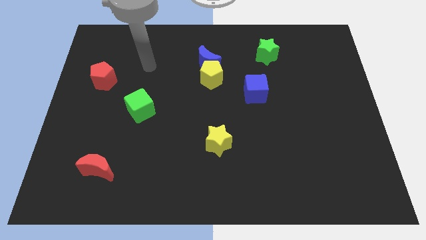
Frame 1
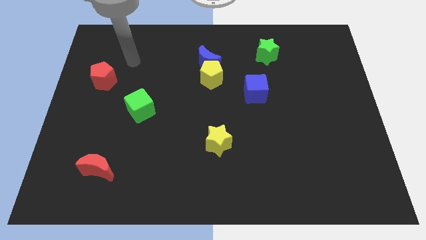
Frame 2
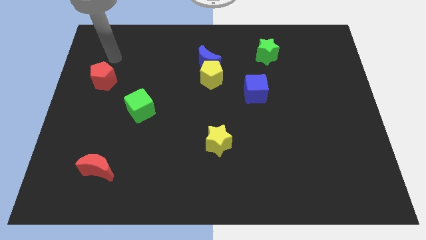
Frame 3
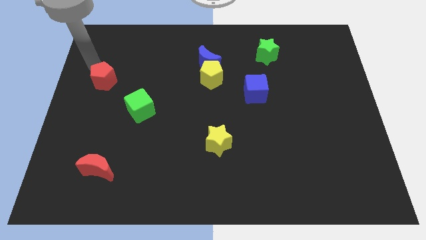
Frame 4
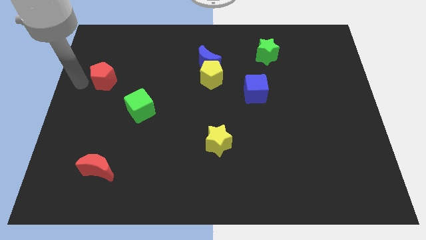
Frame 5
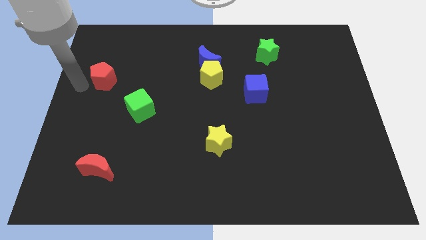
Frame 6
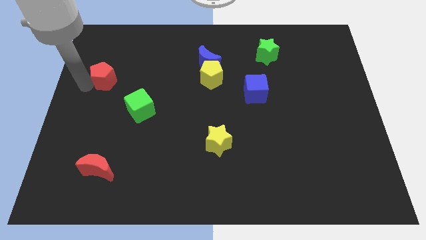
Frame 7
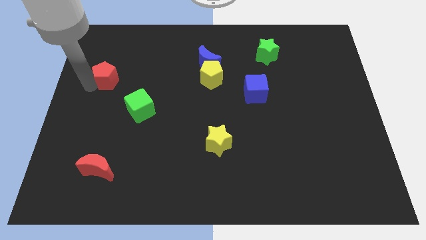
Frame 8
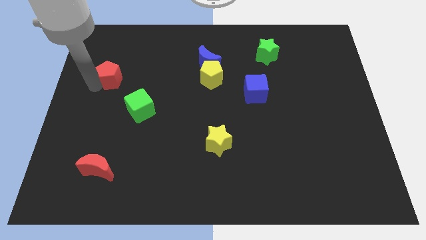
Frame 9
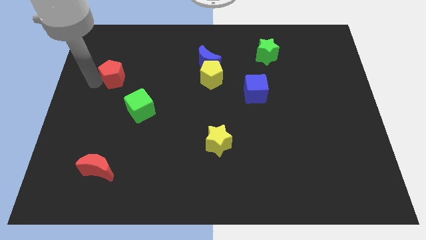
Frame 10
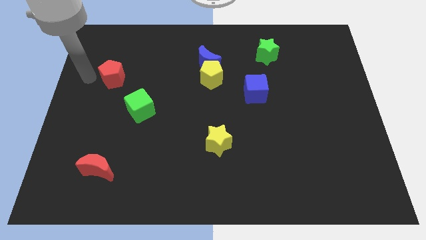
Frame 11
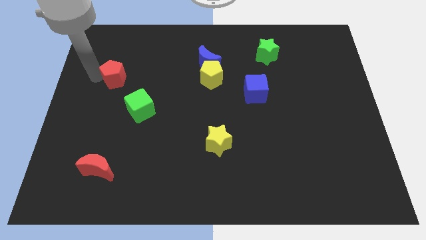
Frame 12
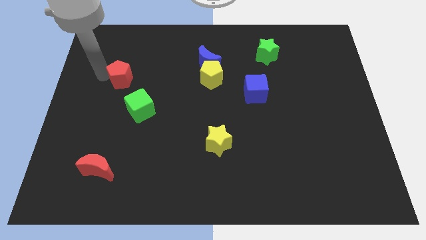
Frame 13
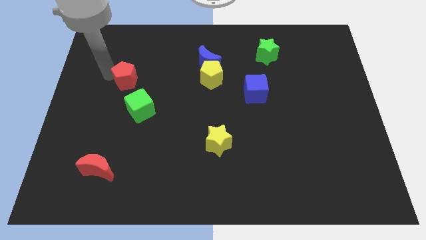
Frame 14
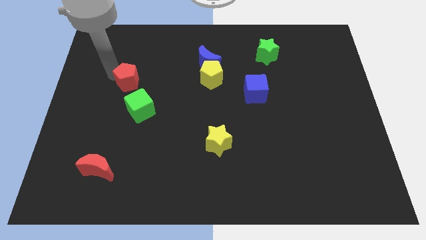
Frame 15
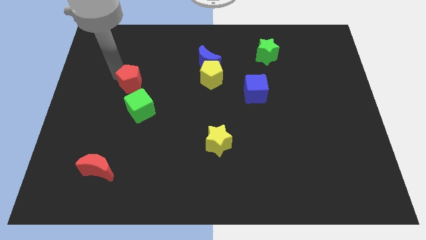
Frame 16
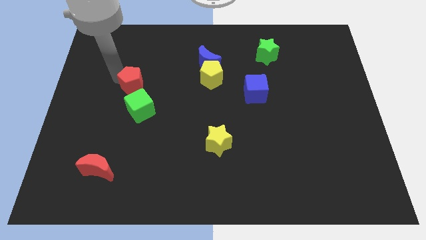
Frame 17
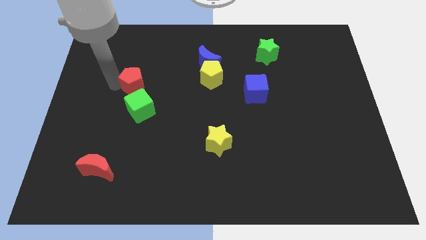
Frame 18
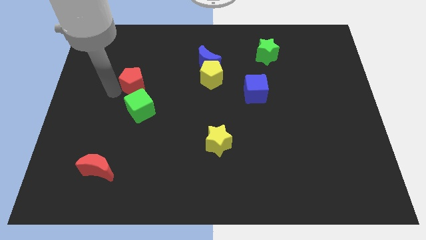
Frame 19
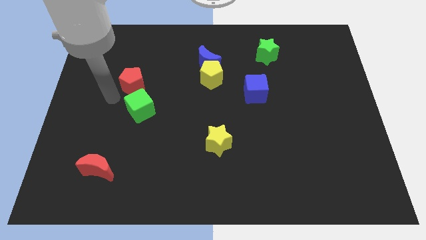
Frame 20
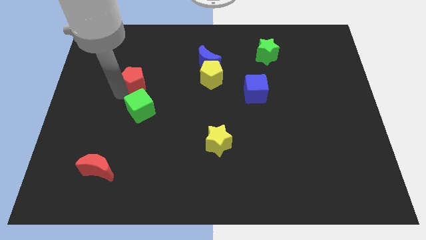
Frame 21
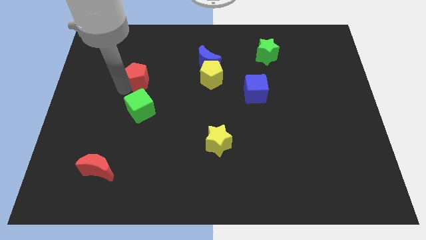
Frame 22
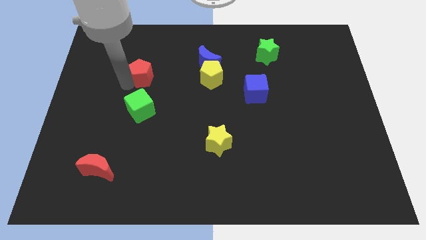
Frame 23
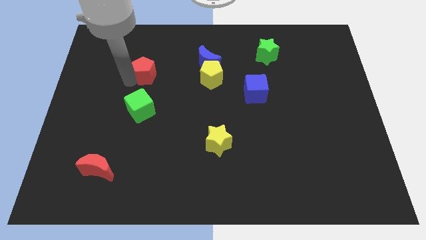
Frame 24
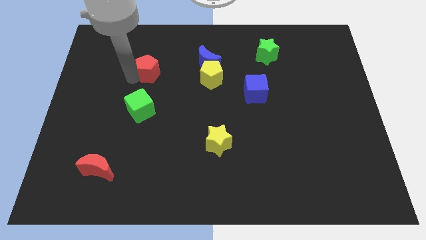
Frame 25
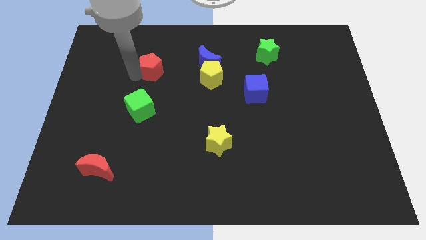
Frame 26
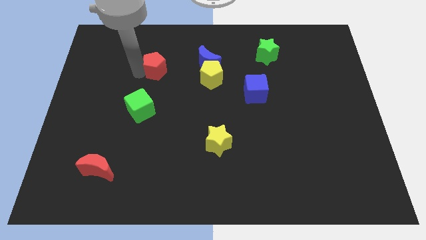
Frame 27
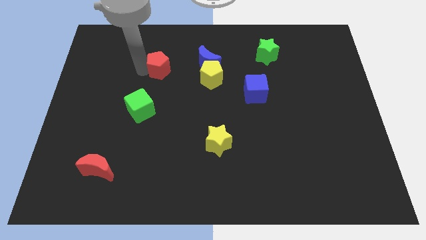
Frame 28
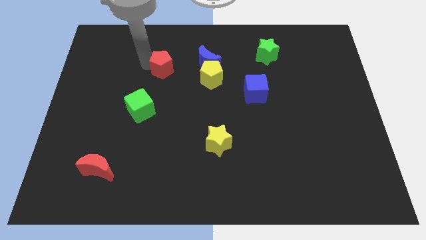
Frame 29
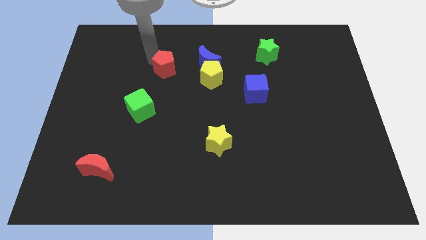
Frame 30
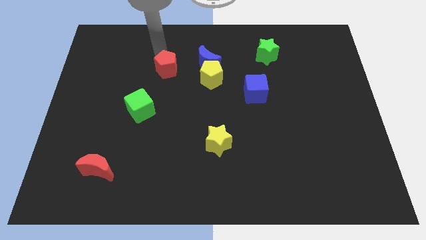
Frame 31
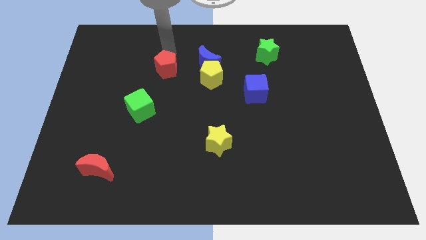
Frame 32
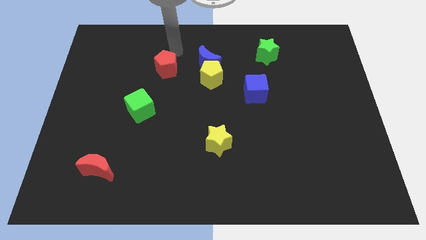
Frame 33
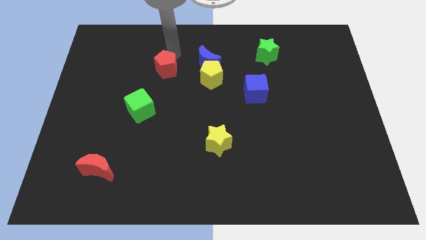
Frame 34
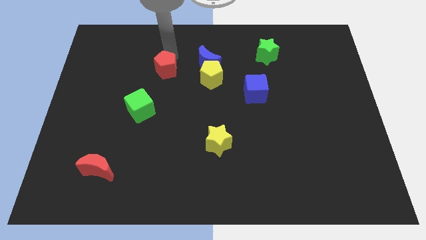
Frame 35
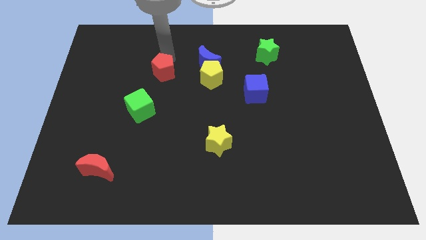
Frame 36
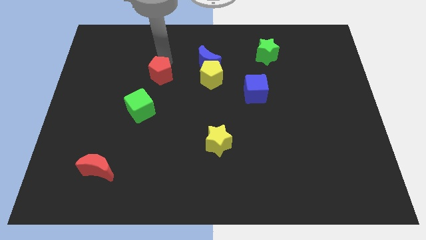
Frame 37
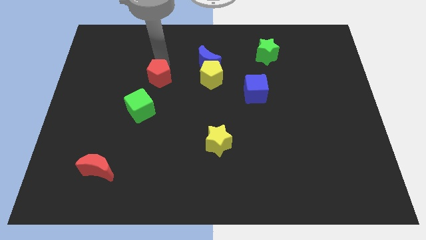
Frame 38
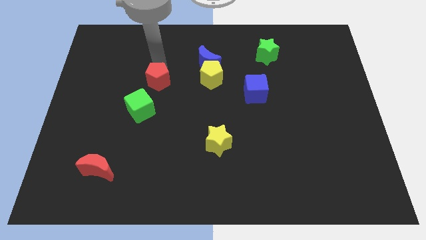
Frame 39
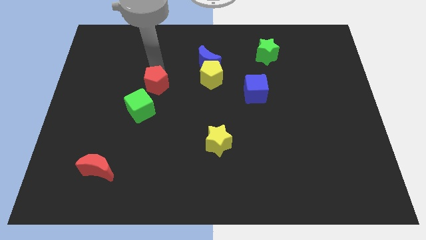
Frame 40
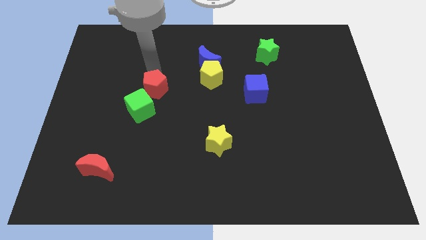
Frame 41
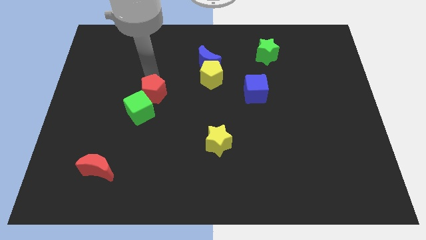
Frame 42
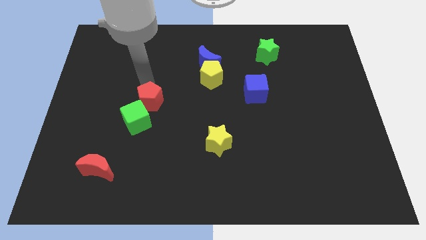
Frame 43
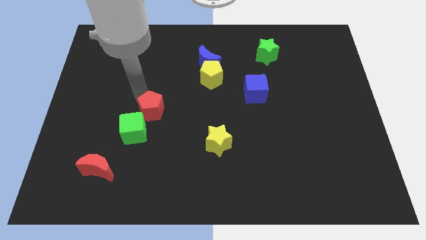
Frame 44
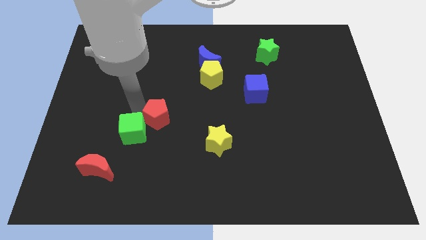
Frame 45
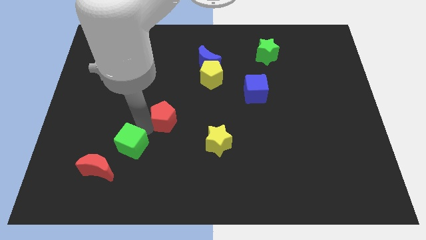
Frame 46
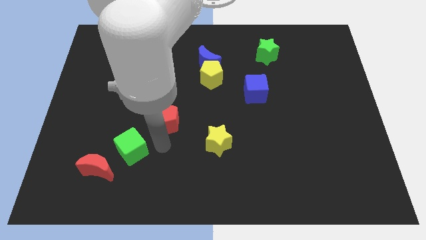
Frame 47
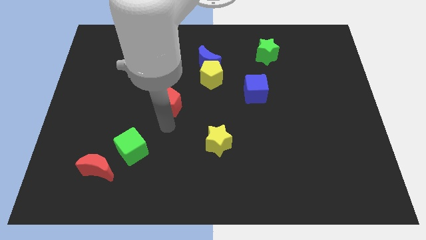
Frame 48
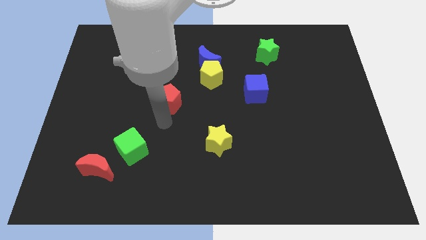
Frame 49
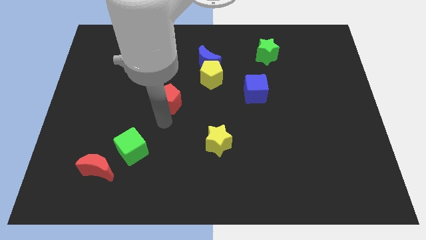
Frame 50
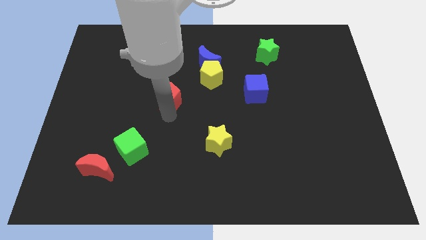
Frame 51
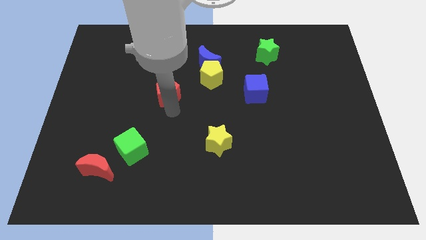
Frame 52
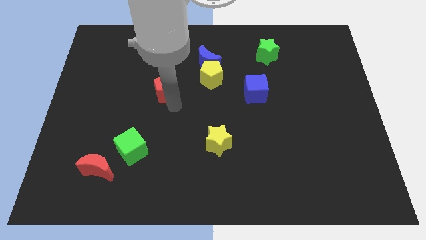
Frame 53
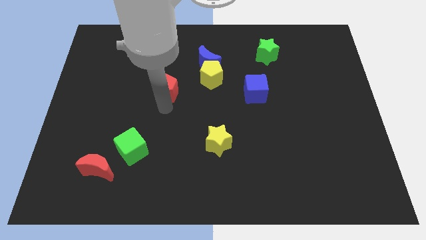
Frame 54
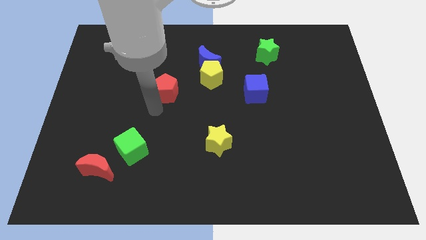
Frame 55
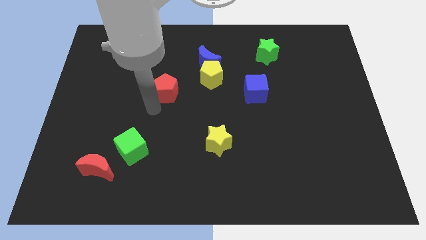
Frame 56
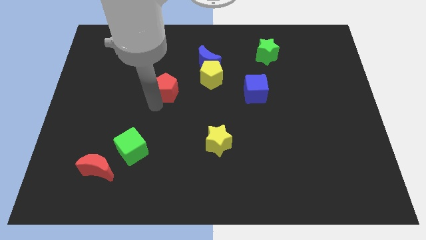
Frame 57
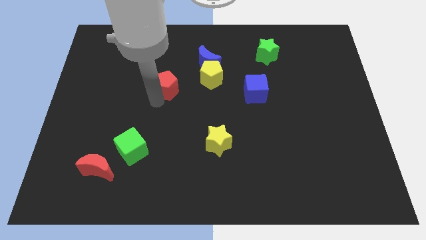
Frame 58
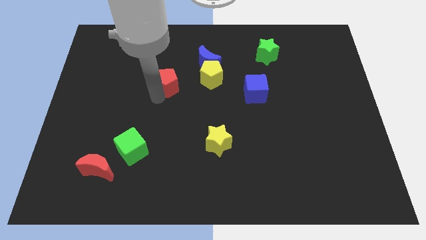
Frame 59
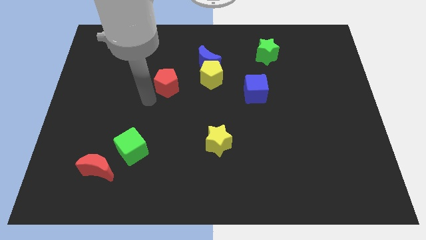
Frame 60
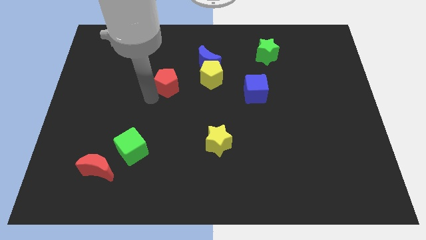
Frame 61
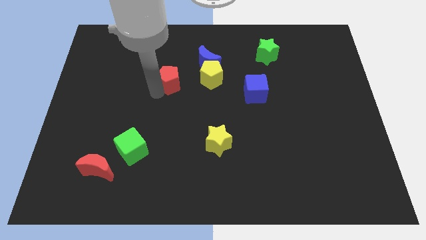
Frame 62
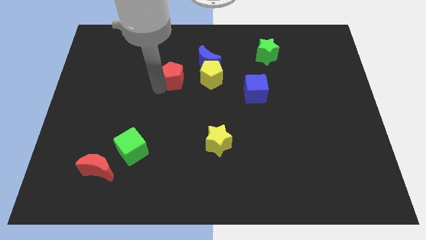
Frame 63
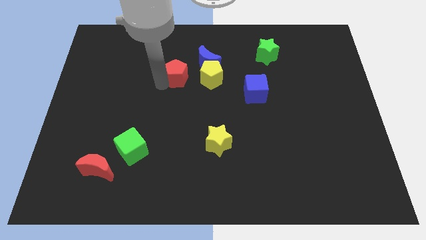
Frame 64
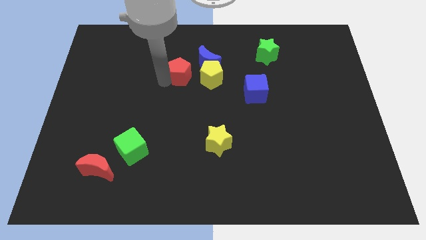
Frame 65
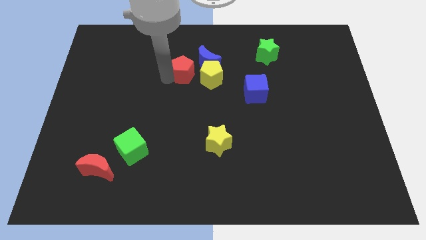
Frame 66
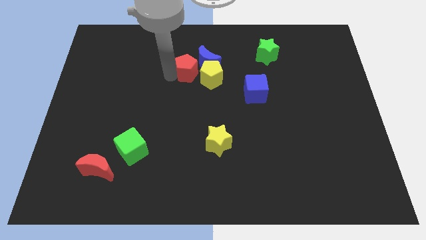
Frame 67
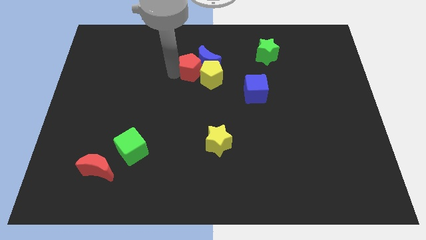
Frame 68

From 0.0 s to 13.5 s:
put the red pentagon close to the yellow pentagon
